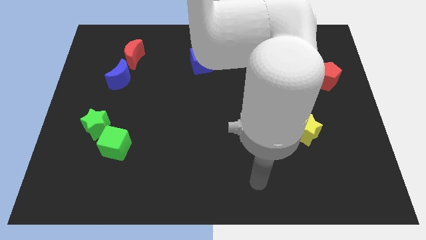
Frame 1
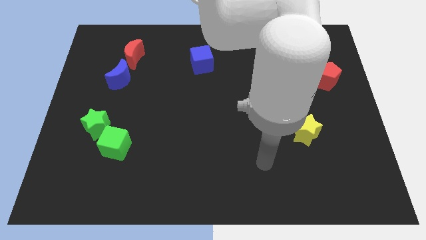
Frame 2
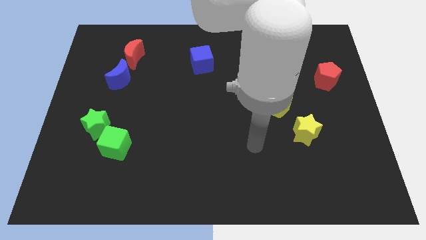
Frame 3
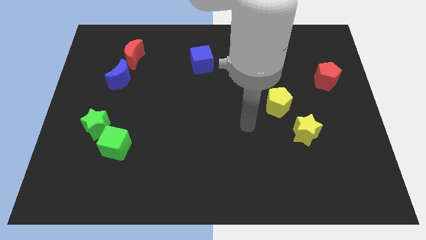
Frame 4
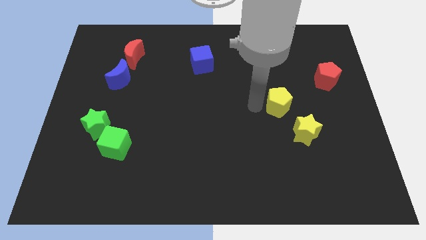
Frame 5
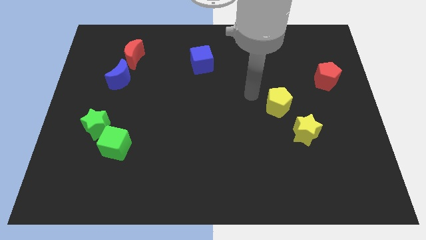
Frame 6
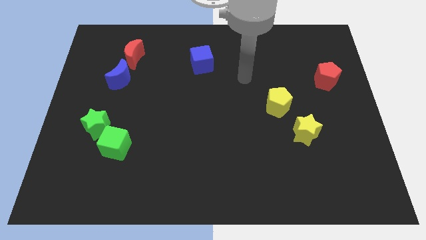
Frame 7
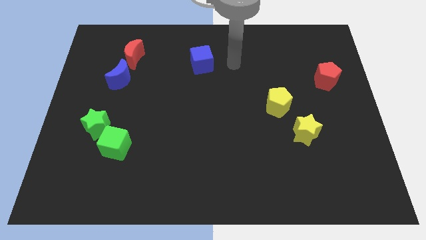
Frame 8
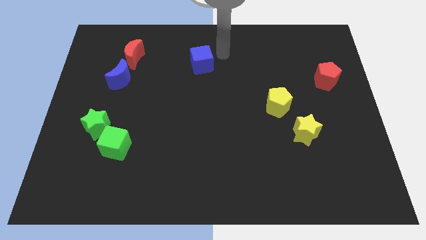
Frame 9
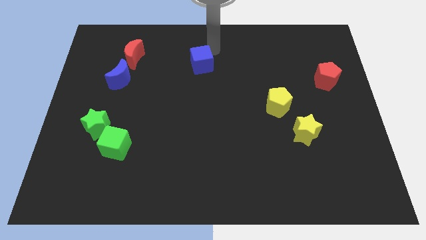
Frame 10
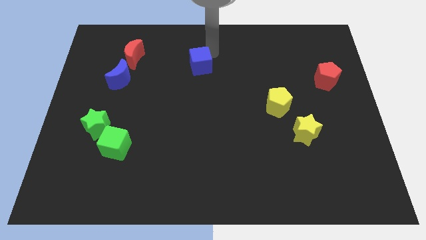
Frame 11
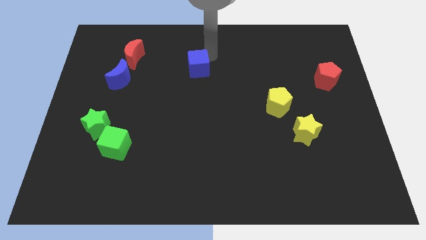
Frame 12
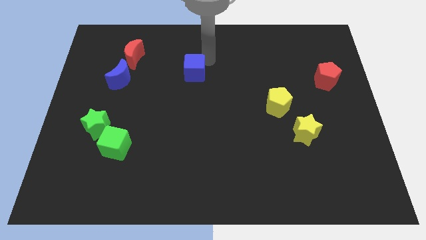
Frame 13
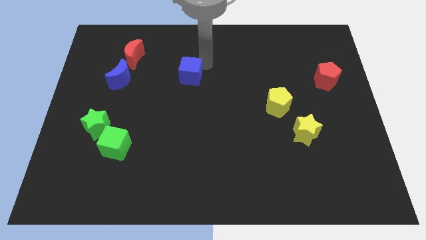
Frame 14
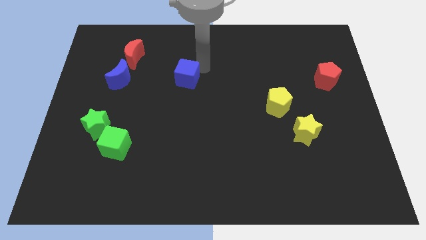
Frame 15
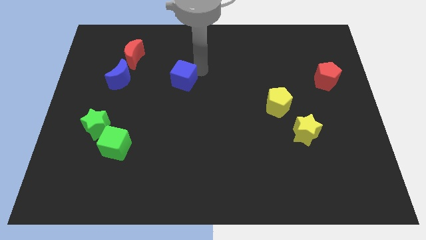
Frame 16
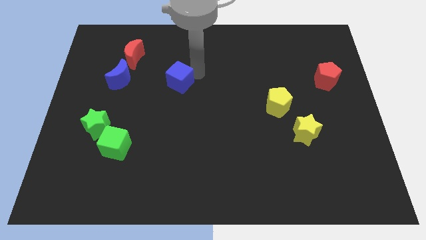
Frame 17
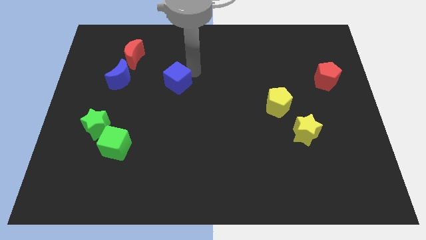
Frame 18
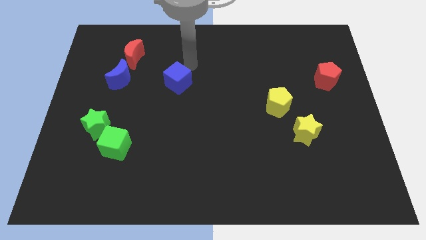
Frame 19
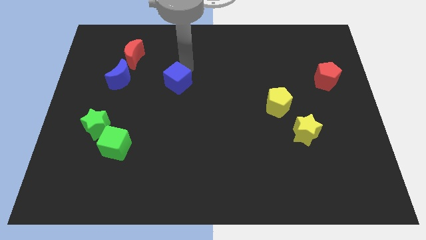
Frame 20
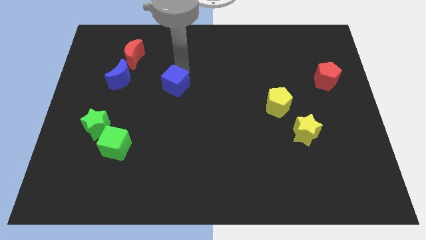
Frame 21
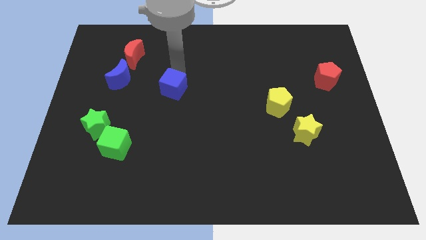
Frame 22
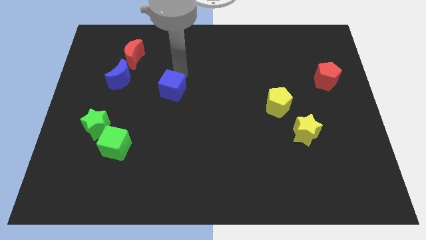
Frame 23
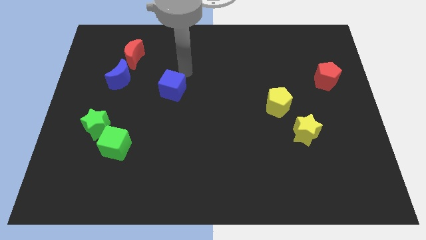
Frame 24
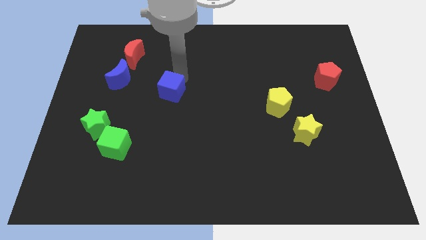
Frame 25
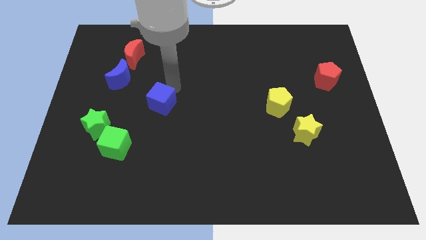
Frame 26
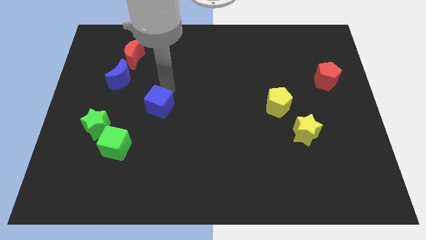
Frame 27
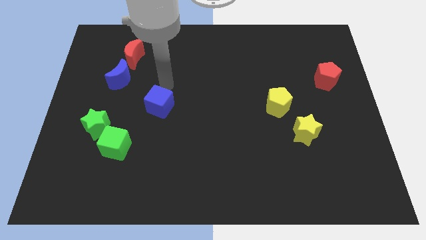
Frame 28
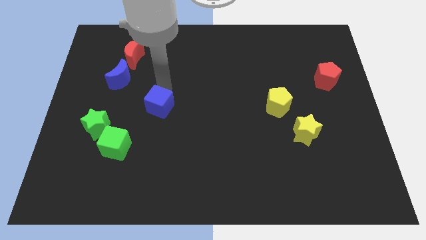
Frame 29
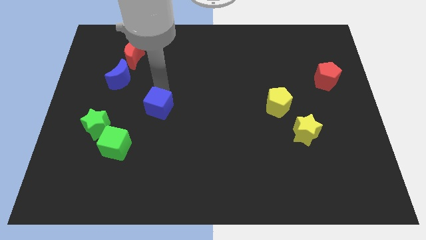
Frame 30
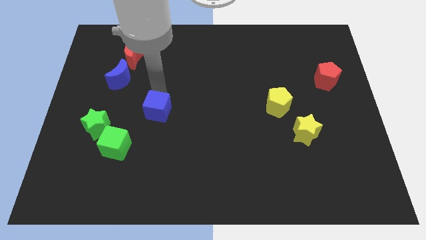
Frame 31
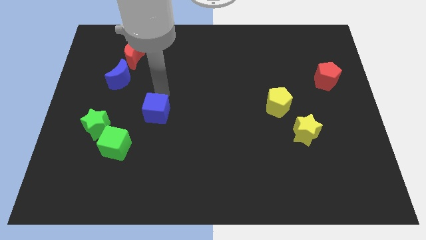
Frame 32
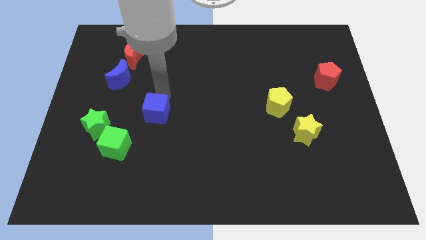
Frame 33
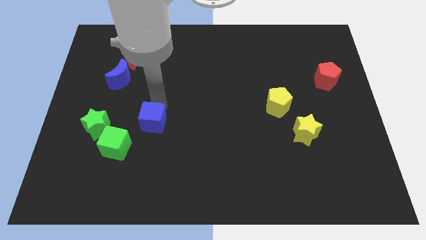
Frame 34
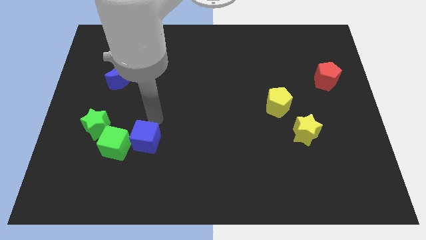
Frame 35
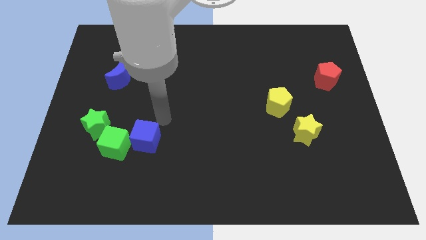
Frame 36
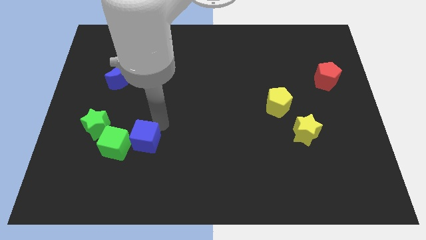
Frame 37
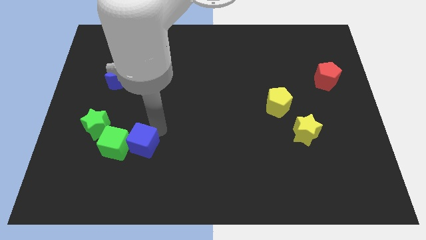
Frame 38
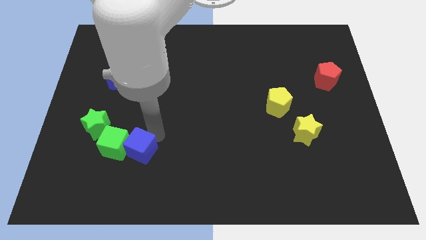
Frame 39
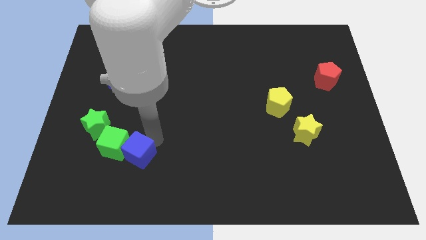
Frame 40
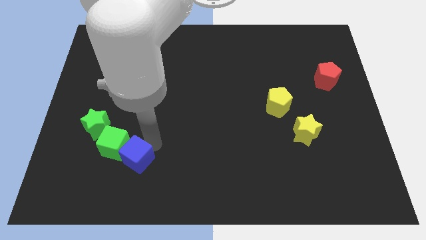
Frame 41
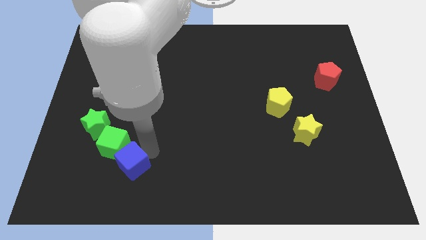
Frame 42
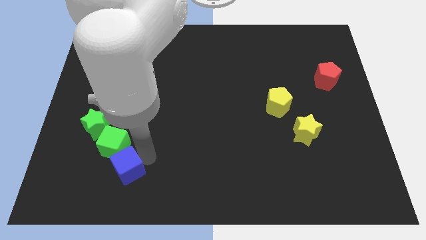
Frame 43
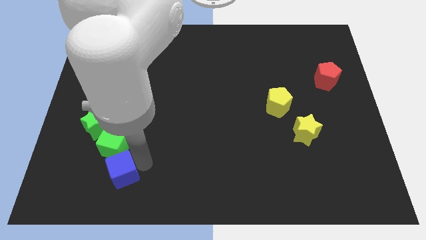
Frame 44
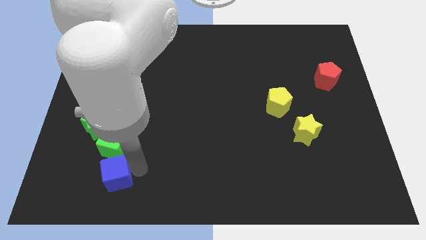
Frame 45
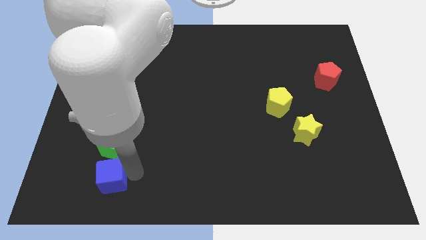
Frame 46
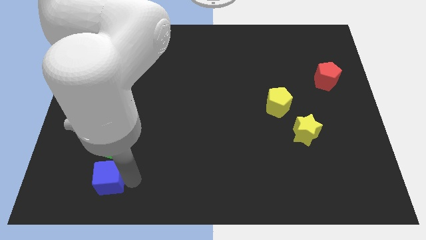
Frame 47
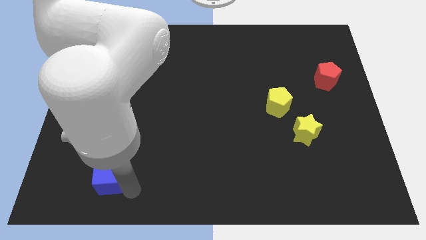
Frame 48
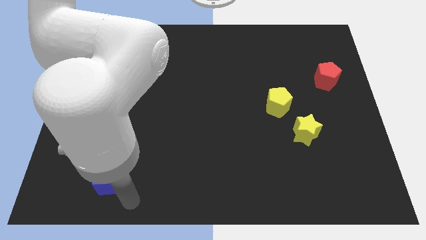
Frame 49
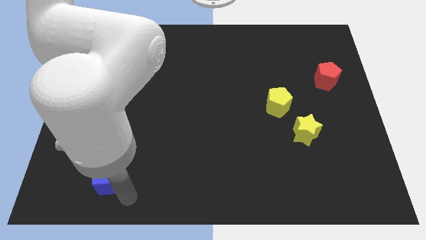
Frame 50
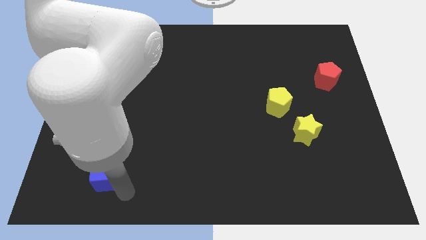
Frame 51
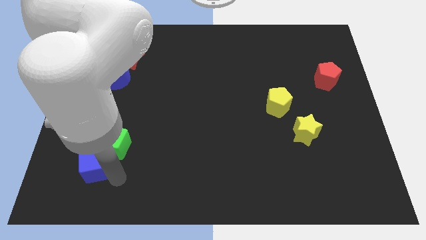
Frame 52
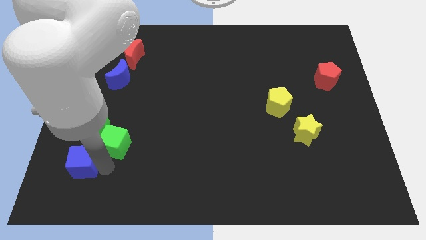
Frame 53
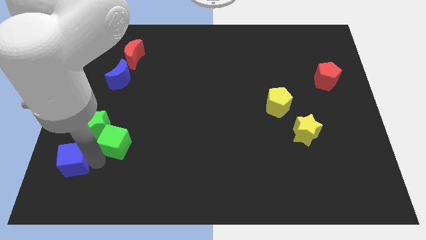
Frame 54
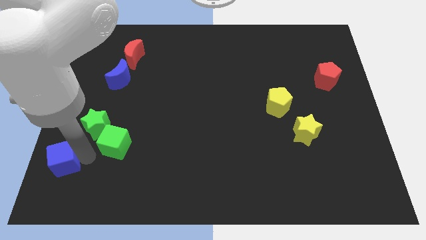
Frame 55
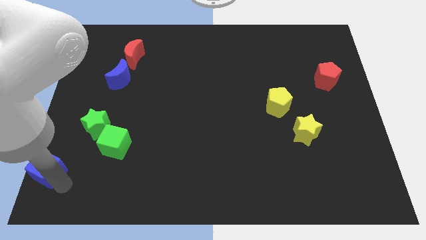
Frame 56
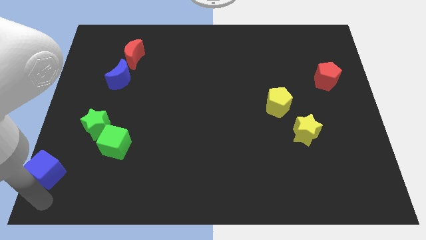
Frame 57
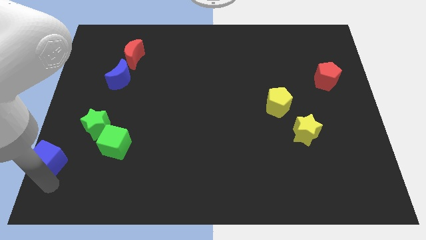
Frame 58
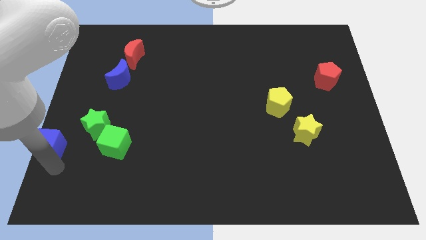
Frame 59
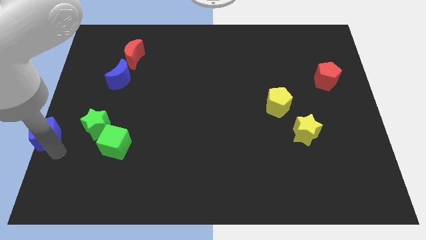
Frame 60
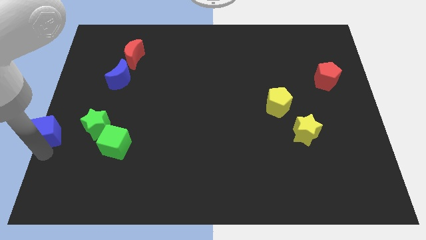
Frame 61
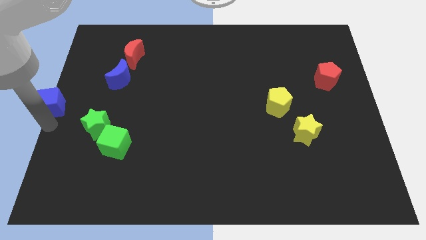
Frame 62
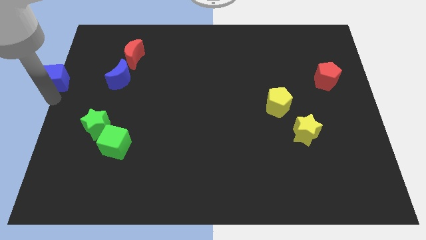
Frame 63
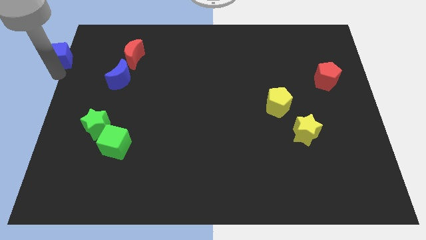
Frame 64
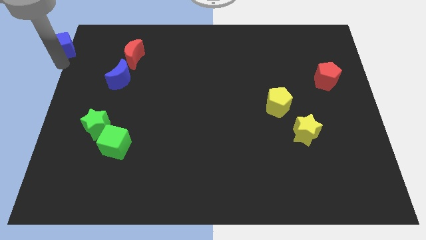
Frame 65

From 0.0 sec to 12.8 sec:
slide the blue cube to the top left
